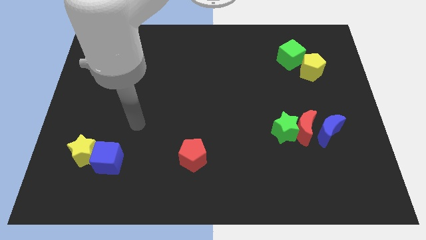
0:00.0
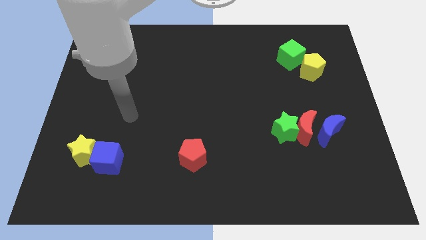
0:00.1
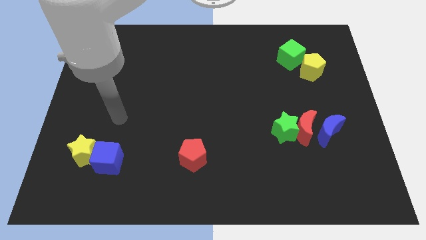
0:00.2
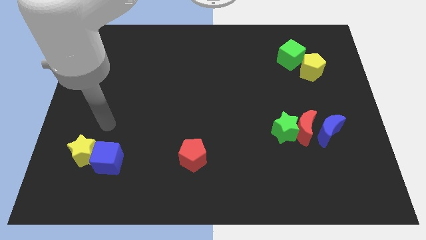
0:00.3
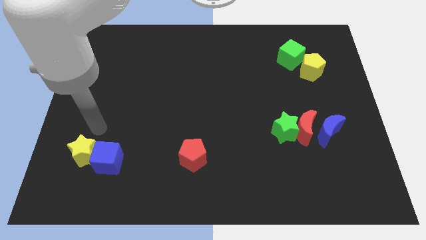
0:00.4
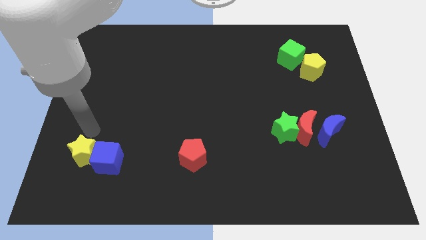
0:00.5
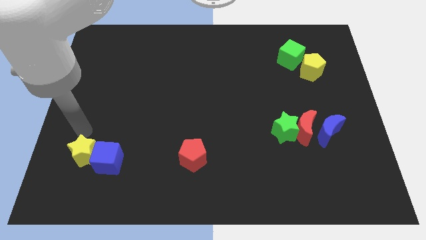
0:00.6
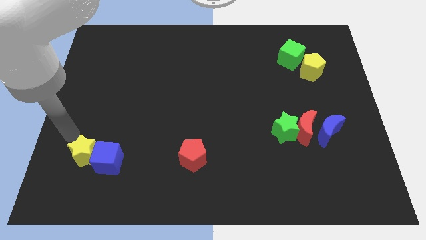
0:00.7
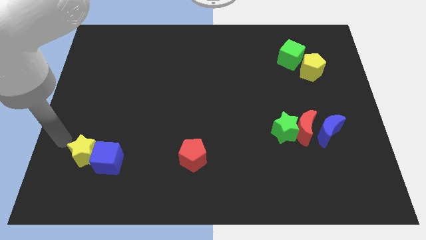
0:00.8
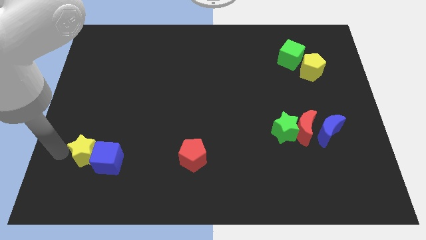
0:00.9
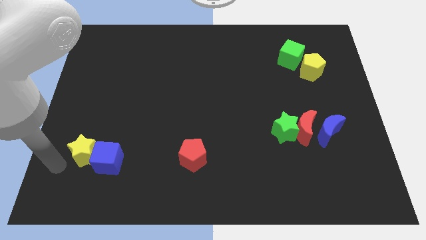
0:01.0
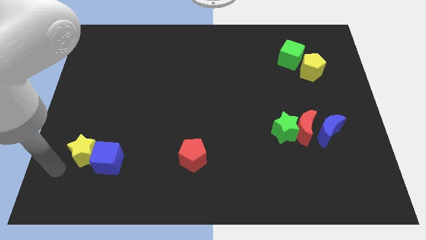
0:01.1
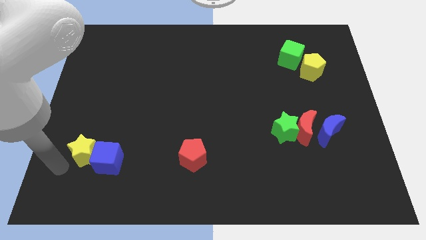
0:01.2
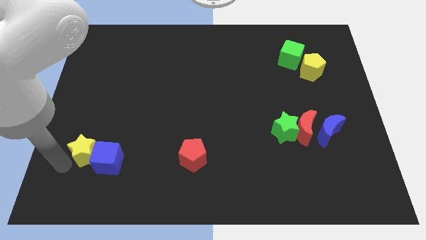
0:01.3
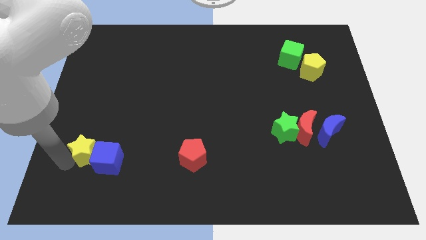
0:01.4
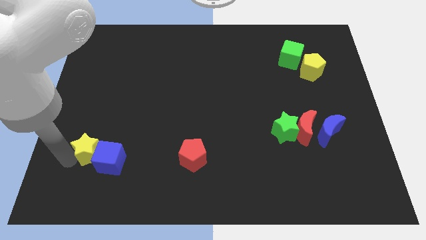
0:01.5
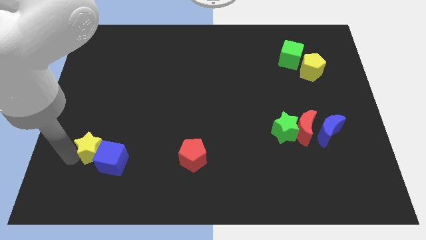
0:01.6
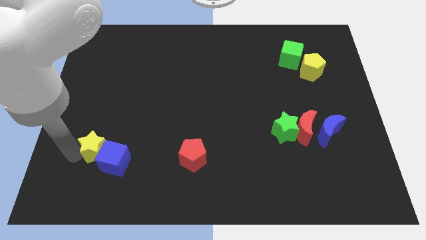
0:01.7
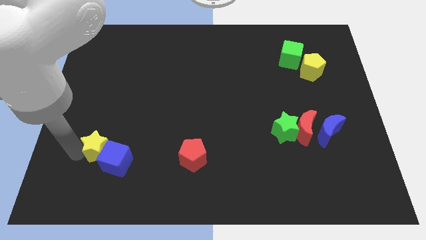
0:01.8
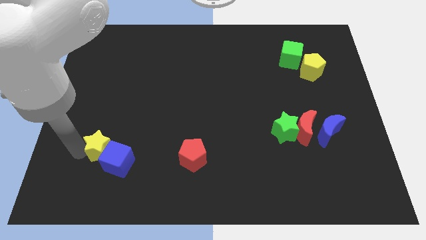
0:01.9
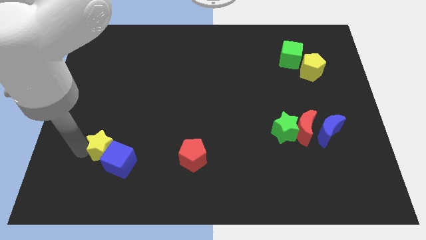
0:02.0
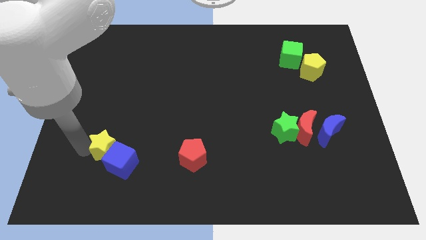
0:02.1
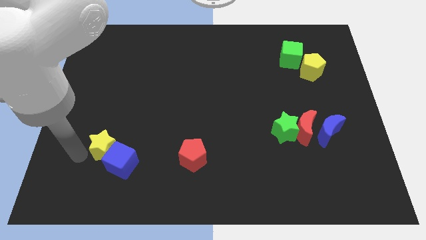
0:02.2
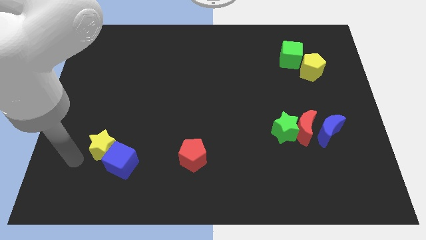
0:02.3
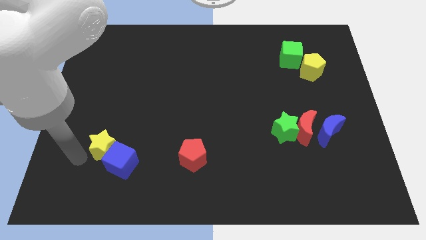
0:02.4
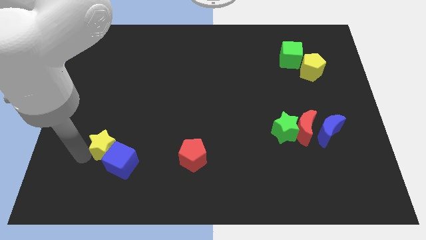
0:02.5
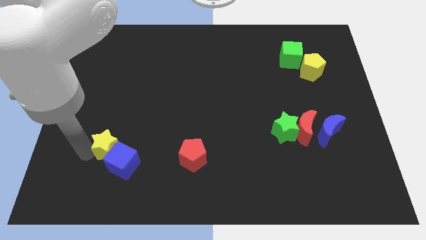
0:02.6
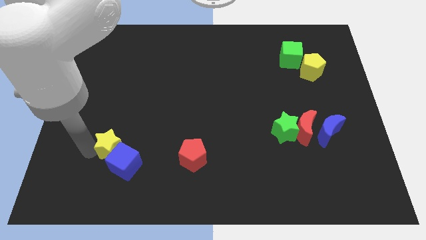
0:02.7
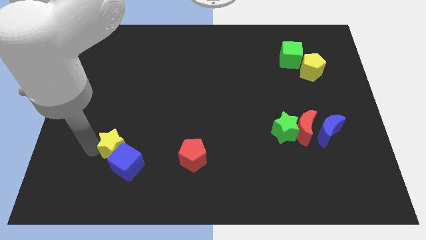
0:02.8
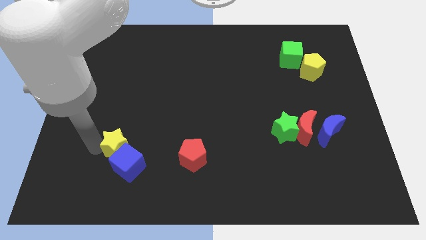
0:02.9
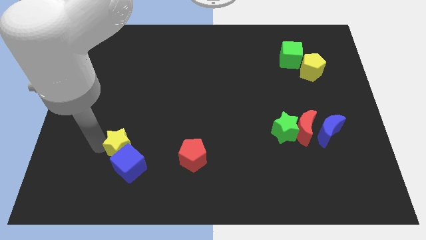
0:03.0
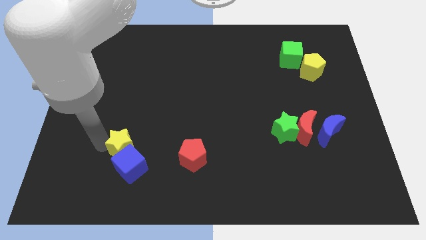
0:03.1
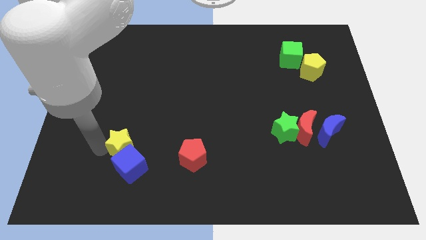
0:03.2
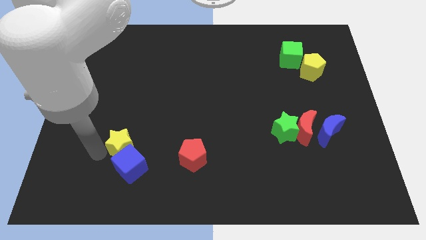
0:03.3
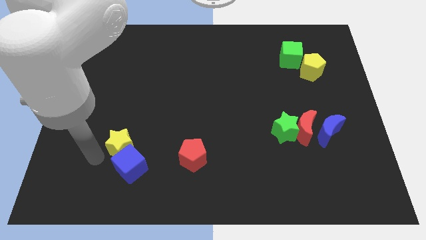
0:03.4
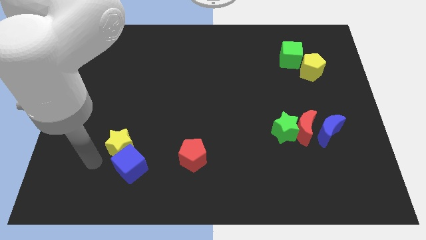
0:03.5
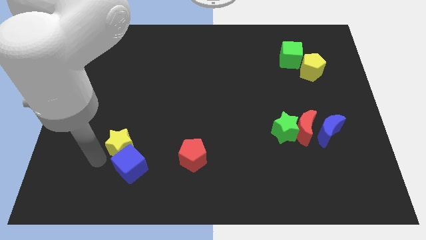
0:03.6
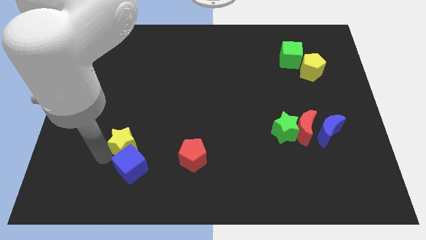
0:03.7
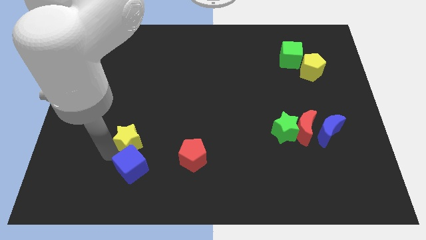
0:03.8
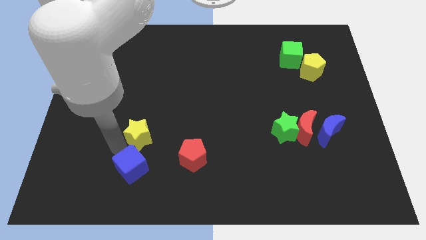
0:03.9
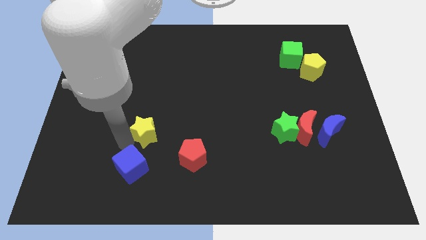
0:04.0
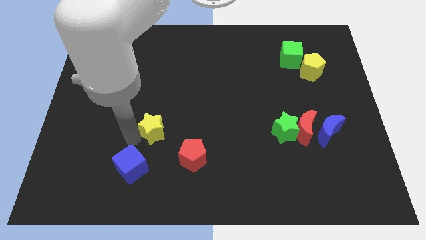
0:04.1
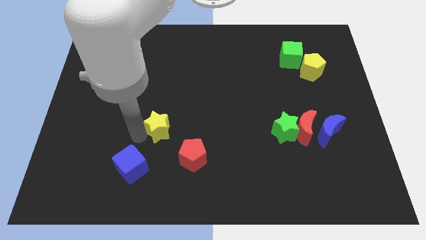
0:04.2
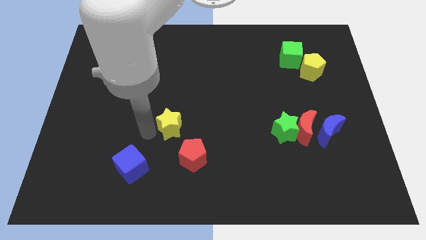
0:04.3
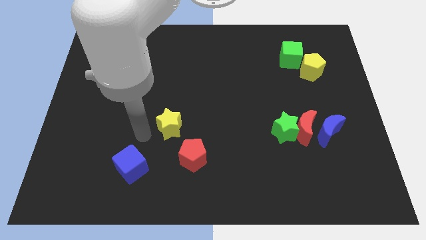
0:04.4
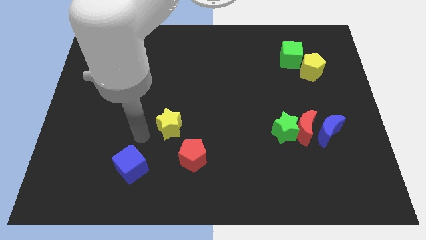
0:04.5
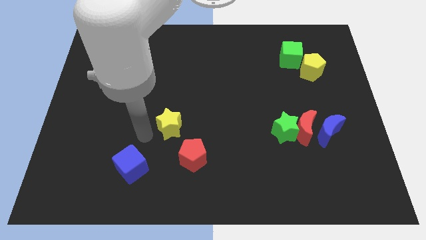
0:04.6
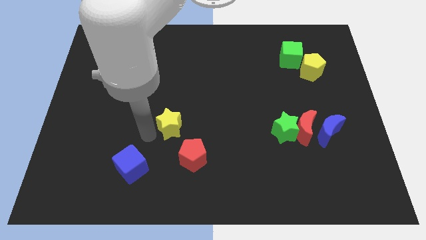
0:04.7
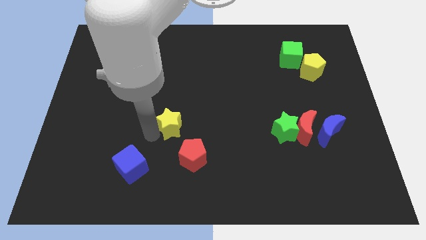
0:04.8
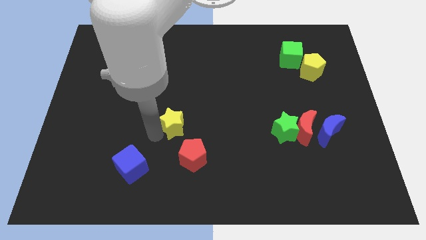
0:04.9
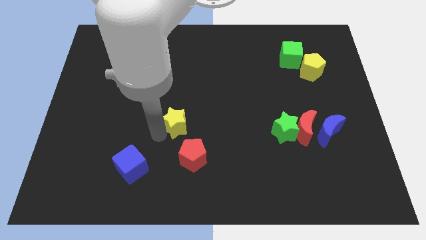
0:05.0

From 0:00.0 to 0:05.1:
push the yellow star to the top side of the red pentagon

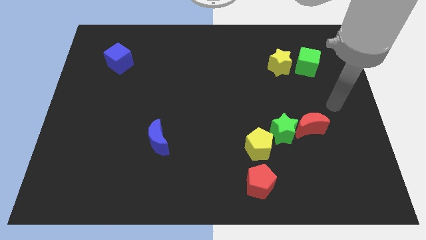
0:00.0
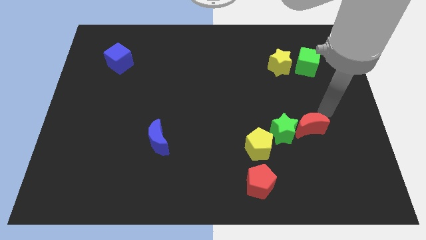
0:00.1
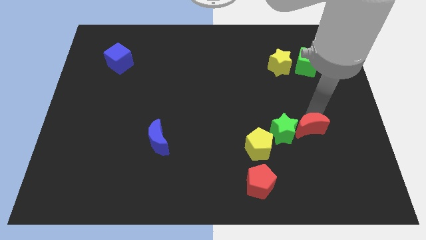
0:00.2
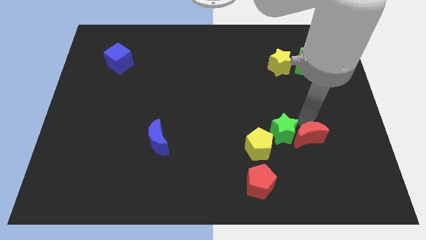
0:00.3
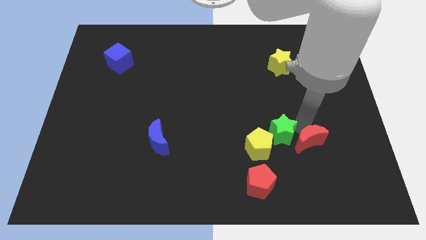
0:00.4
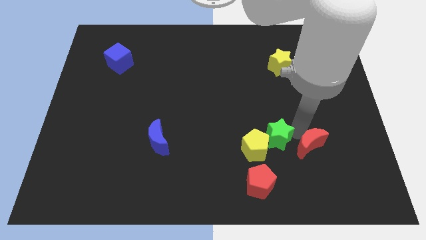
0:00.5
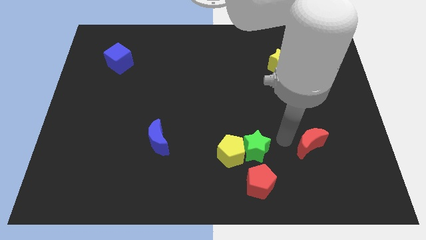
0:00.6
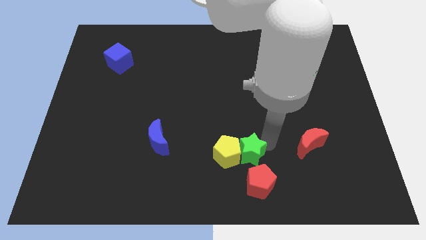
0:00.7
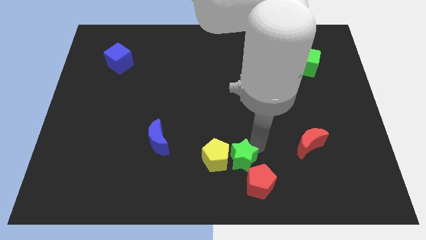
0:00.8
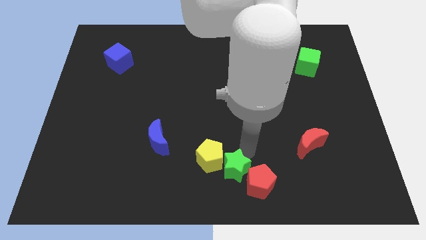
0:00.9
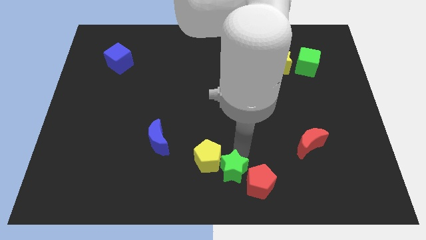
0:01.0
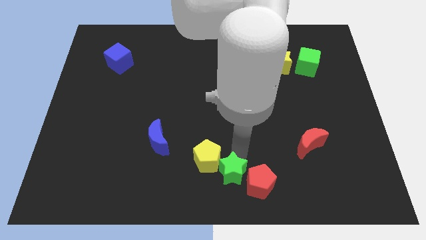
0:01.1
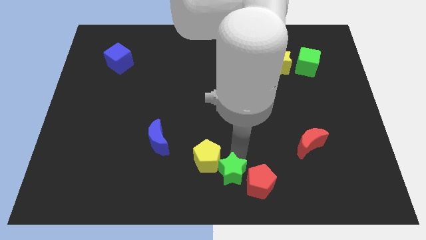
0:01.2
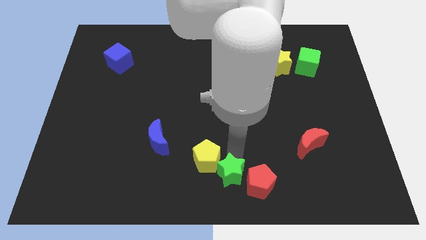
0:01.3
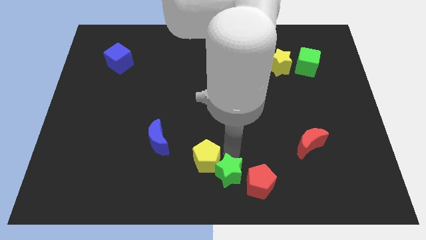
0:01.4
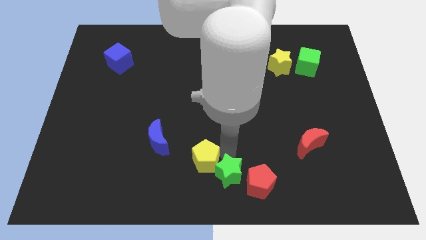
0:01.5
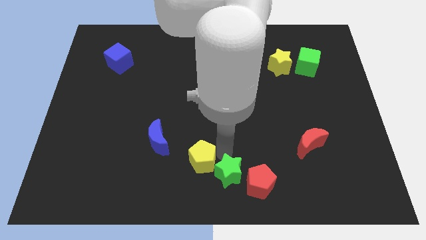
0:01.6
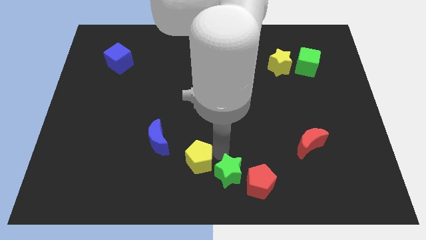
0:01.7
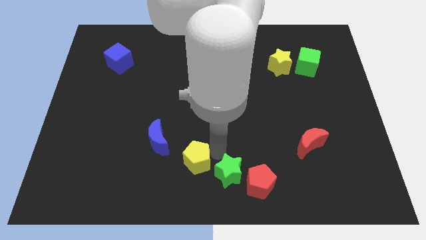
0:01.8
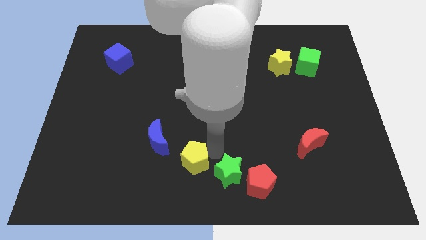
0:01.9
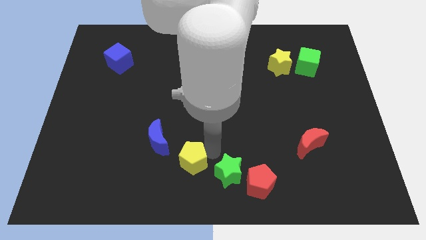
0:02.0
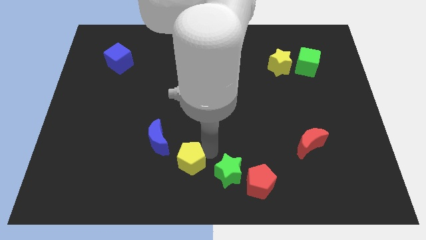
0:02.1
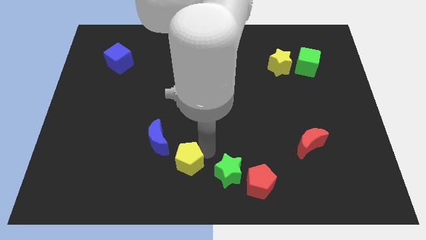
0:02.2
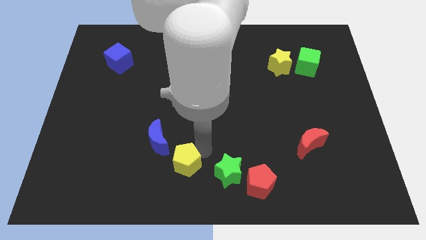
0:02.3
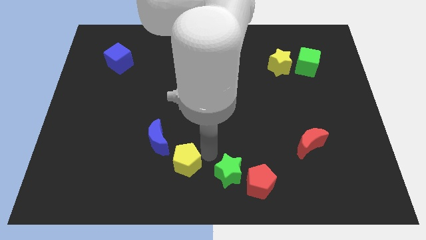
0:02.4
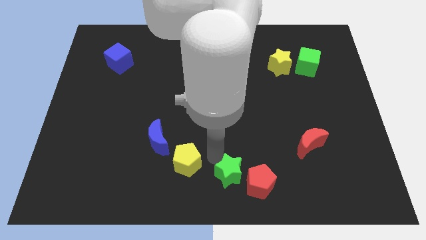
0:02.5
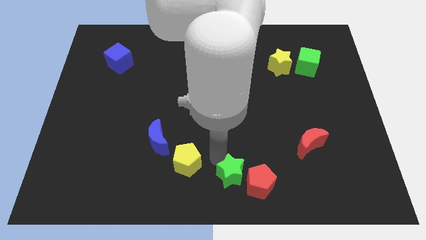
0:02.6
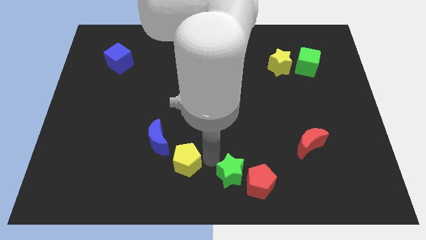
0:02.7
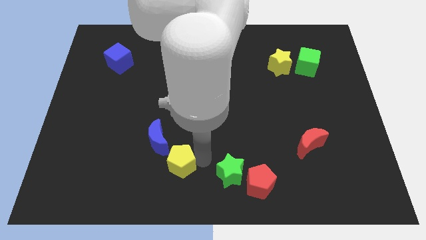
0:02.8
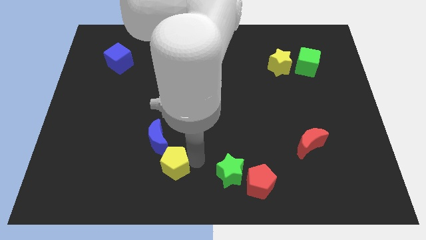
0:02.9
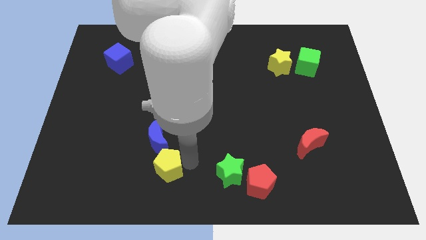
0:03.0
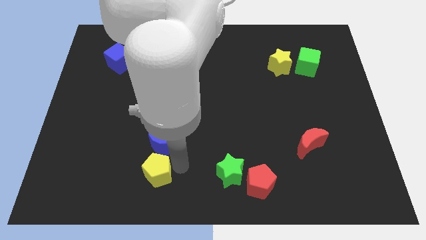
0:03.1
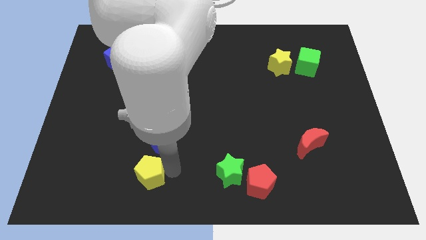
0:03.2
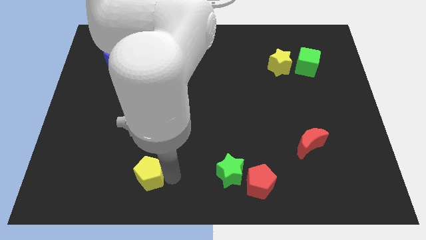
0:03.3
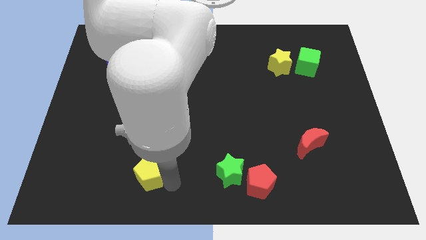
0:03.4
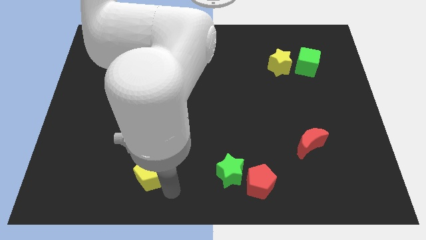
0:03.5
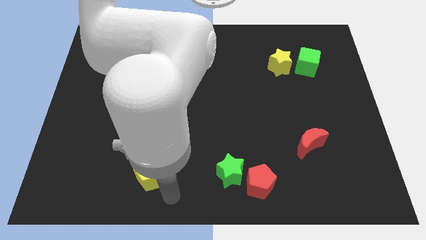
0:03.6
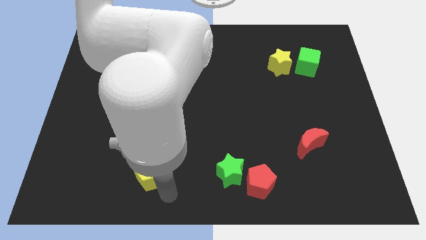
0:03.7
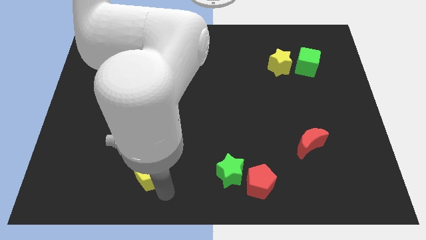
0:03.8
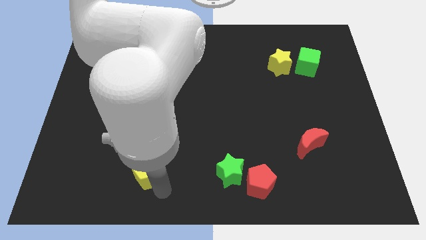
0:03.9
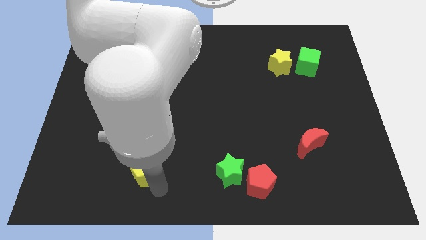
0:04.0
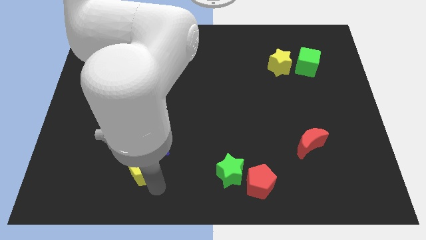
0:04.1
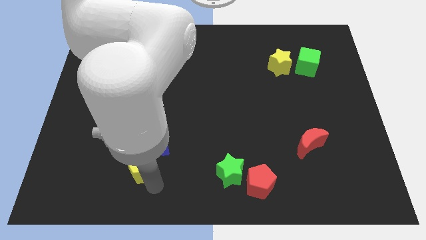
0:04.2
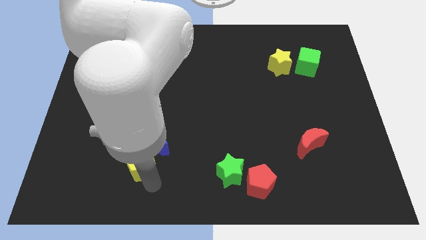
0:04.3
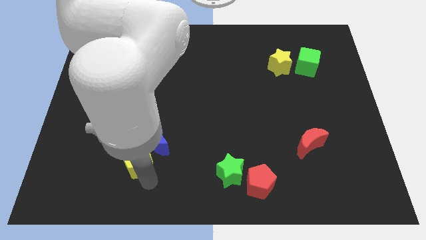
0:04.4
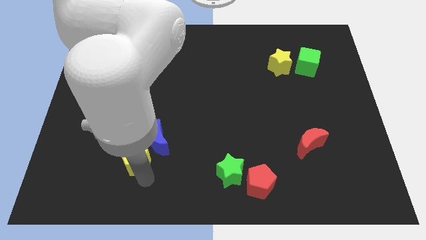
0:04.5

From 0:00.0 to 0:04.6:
put the yellow pentagon just left of the blue moon
